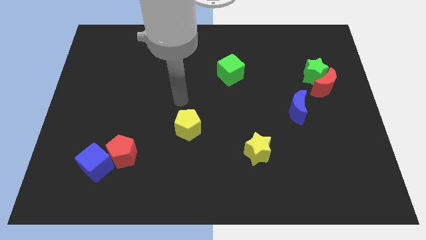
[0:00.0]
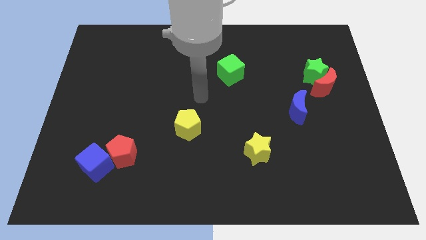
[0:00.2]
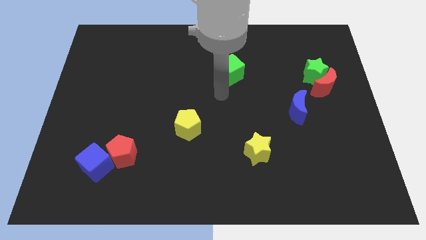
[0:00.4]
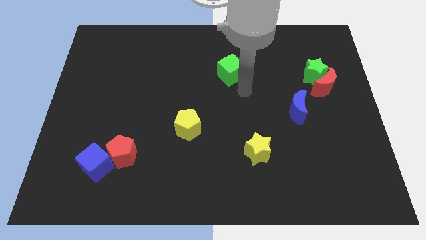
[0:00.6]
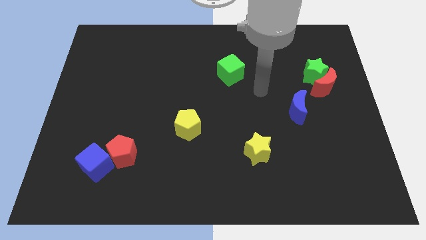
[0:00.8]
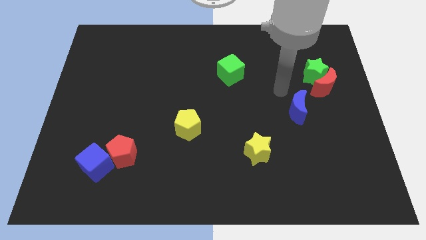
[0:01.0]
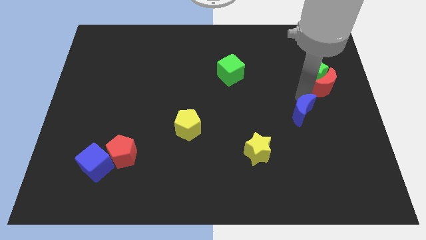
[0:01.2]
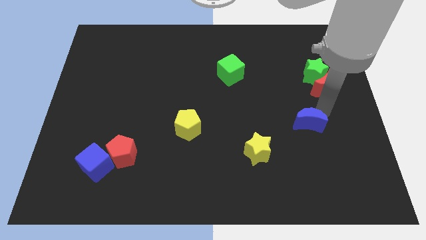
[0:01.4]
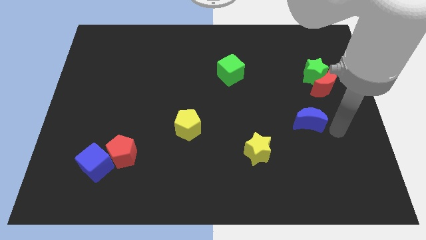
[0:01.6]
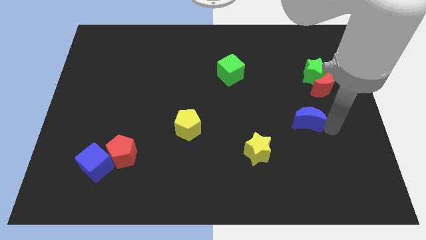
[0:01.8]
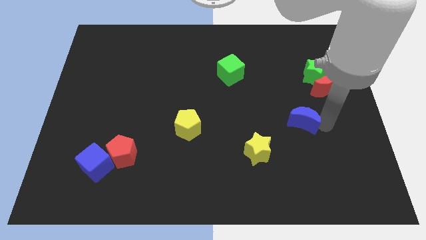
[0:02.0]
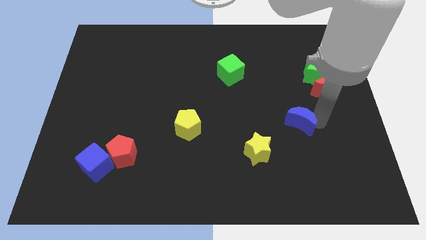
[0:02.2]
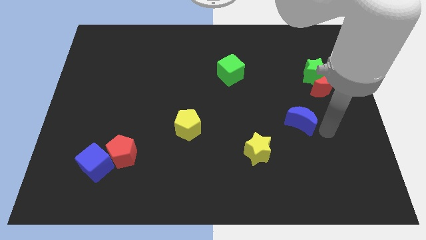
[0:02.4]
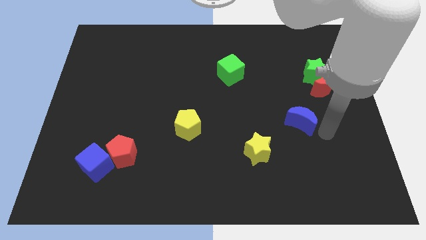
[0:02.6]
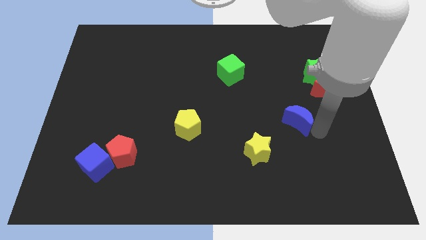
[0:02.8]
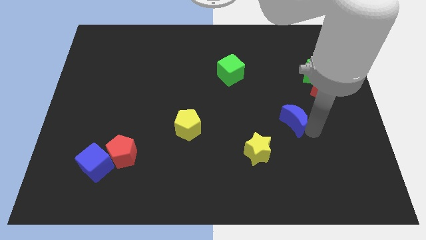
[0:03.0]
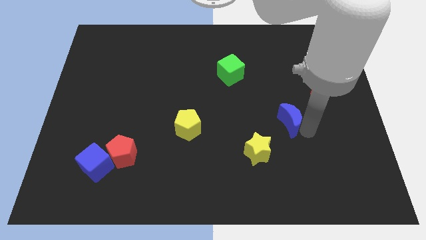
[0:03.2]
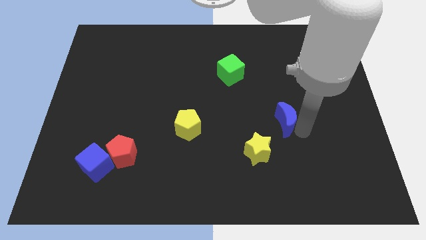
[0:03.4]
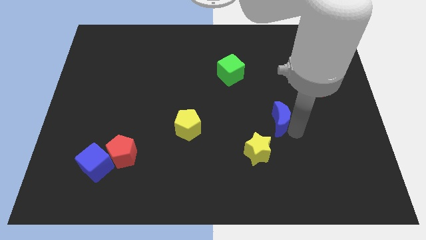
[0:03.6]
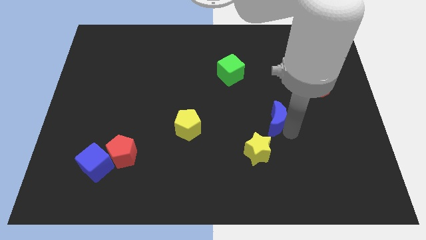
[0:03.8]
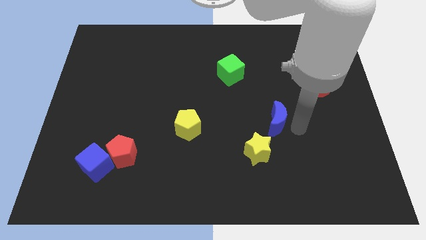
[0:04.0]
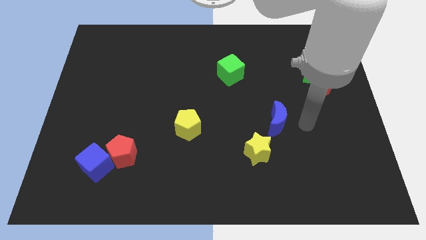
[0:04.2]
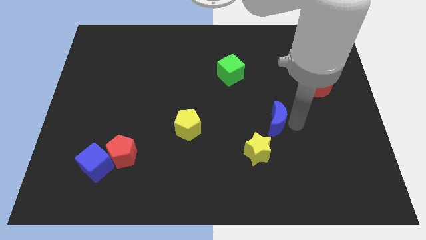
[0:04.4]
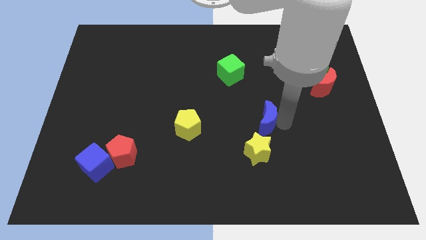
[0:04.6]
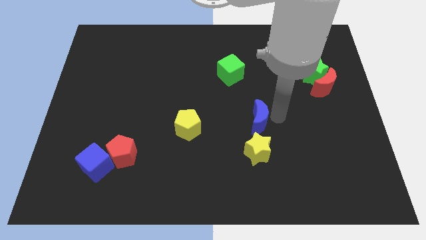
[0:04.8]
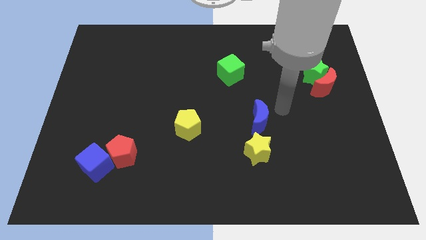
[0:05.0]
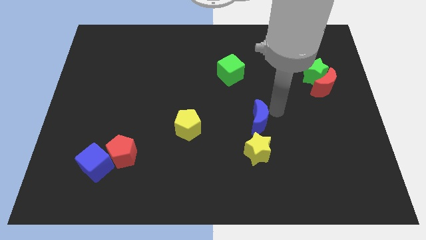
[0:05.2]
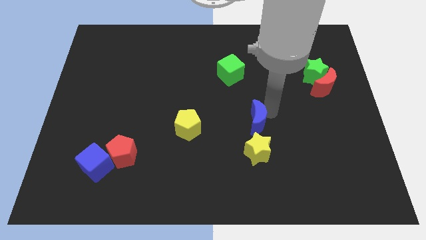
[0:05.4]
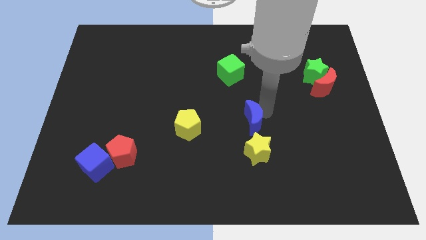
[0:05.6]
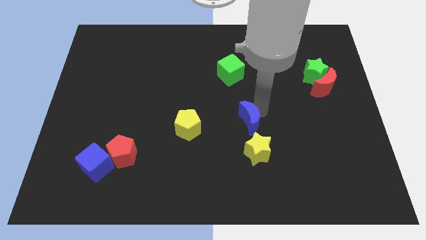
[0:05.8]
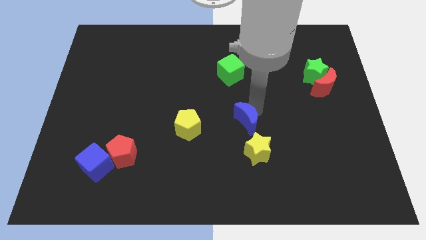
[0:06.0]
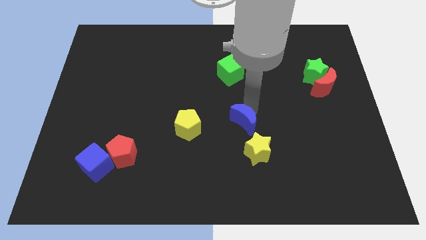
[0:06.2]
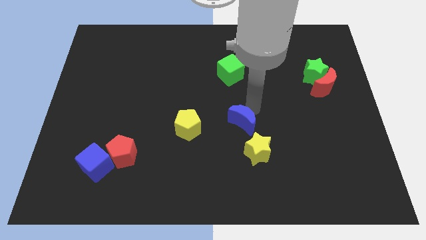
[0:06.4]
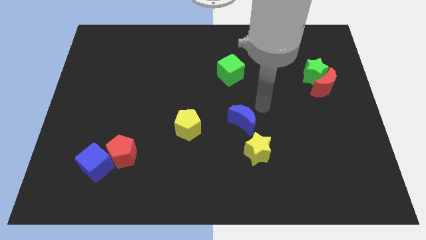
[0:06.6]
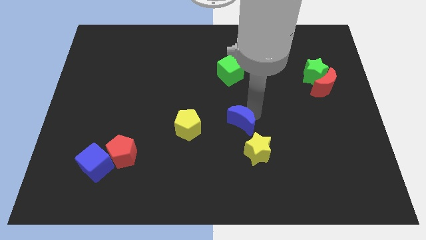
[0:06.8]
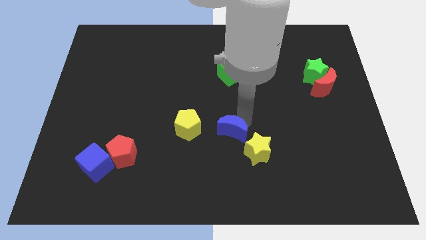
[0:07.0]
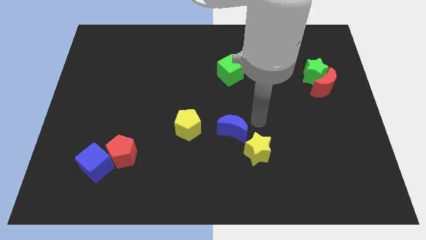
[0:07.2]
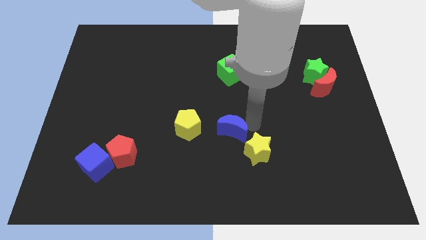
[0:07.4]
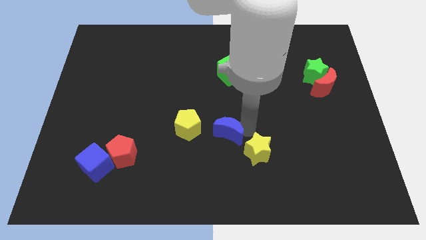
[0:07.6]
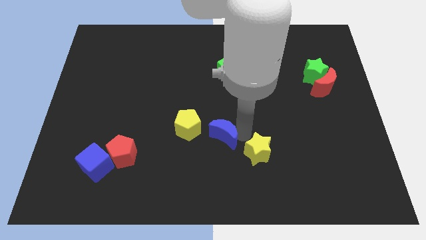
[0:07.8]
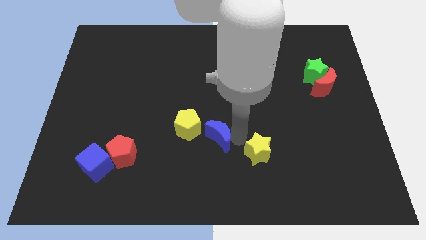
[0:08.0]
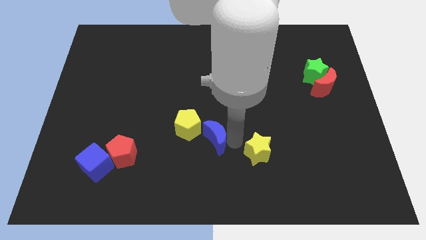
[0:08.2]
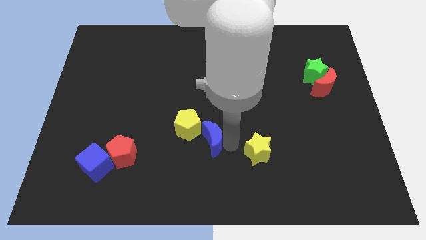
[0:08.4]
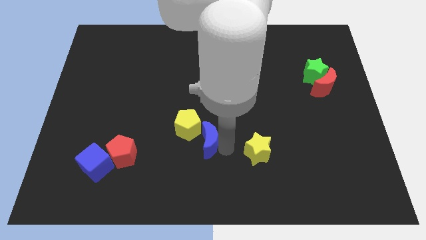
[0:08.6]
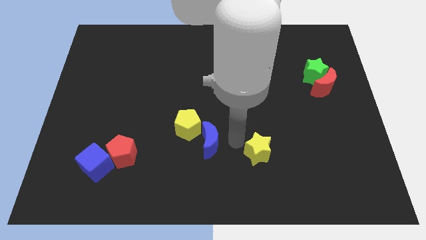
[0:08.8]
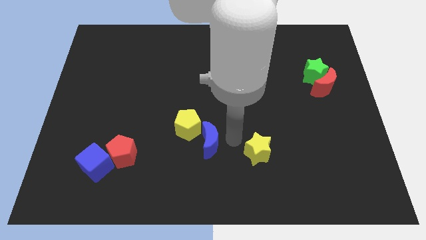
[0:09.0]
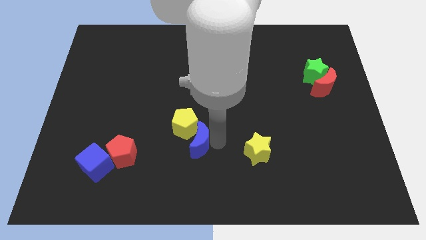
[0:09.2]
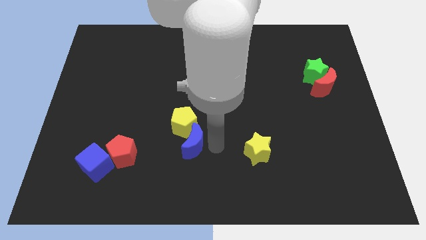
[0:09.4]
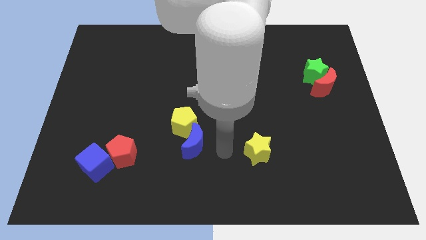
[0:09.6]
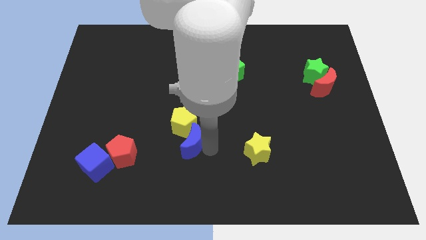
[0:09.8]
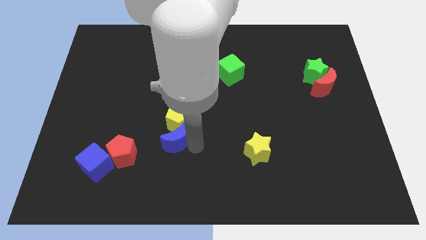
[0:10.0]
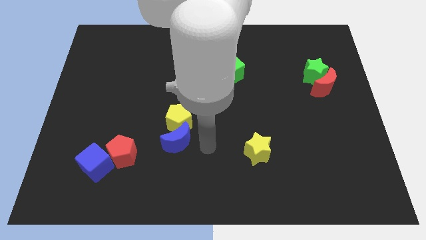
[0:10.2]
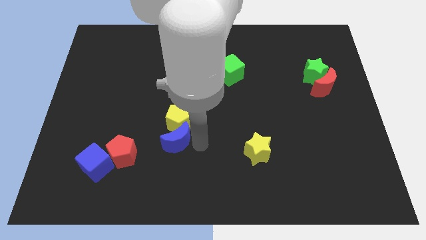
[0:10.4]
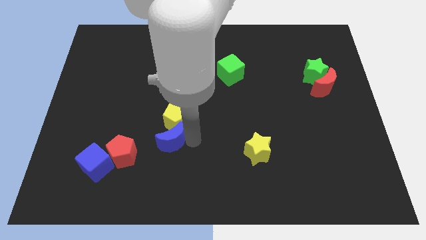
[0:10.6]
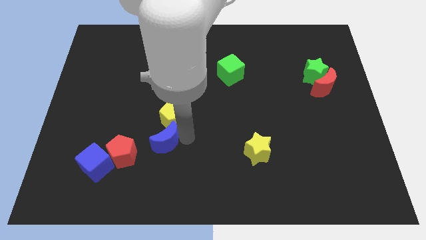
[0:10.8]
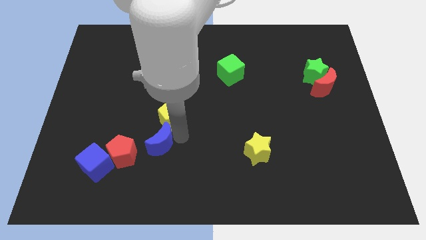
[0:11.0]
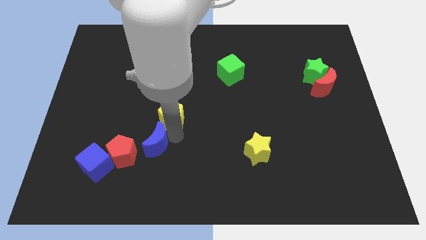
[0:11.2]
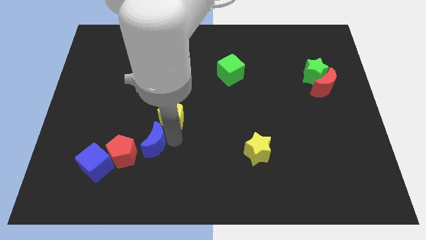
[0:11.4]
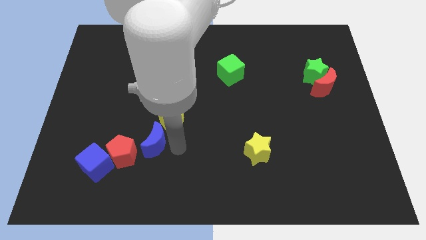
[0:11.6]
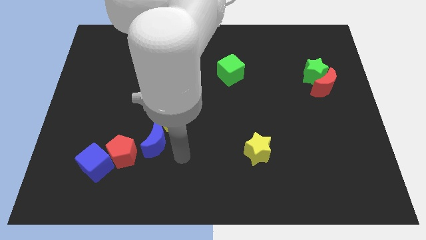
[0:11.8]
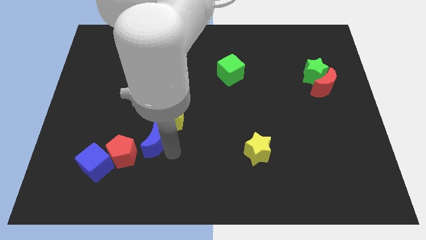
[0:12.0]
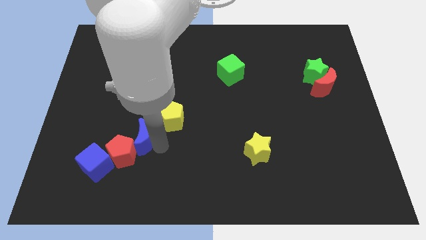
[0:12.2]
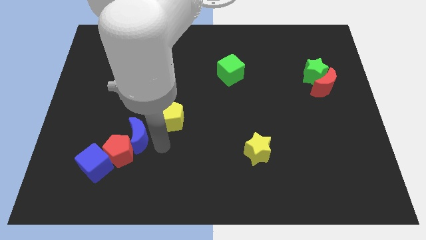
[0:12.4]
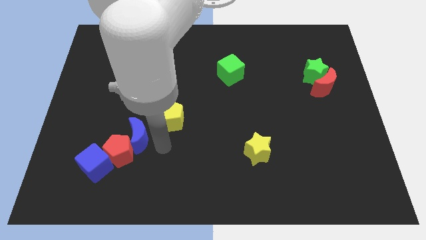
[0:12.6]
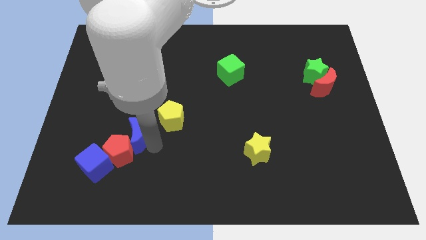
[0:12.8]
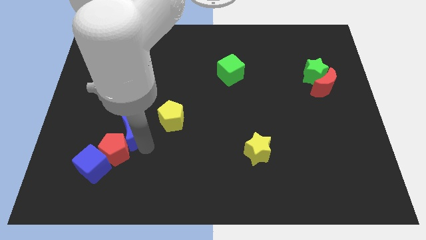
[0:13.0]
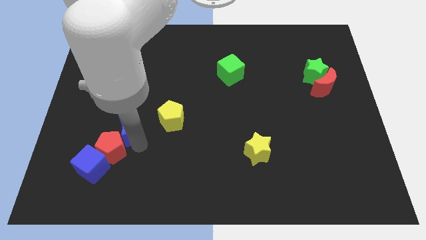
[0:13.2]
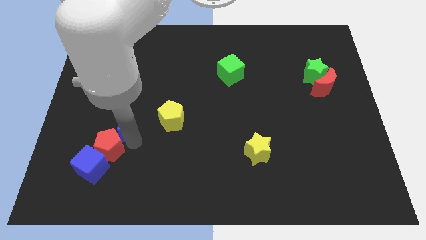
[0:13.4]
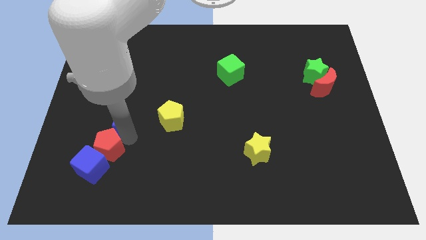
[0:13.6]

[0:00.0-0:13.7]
slide the blue moon to the top side of the blue cube
